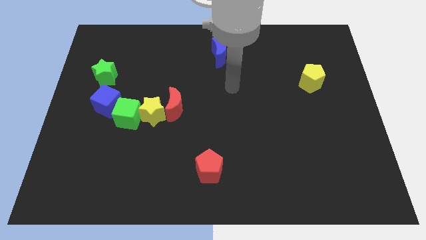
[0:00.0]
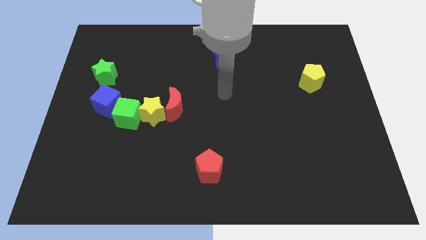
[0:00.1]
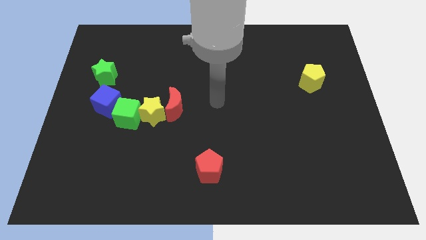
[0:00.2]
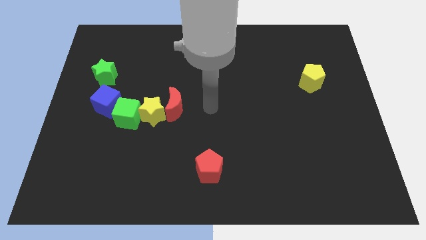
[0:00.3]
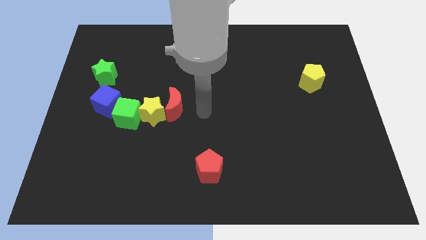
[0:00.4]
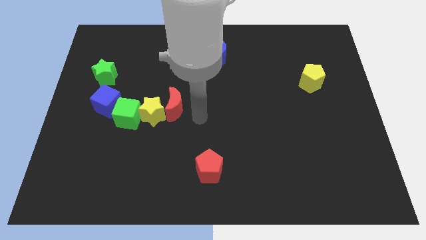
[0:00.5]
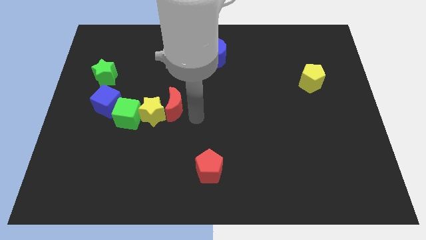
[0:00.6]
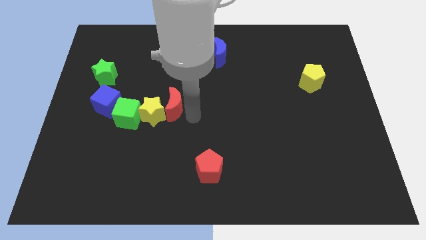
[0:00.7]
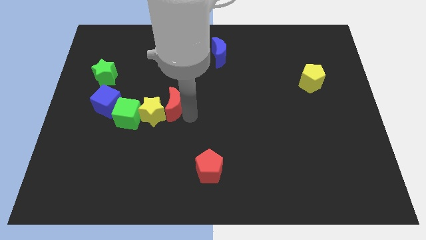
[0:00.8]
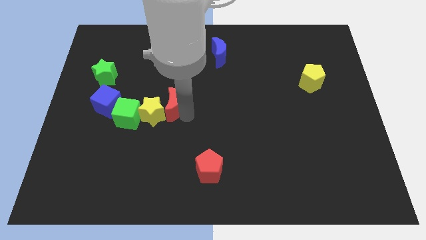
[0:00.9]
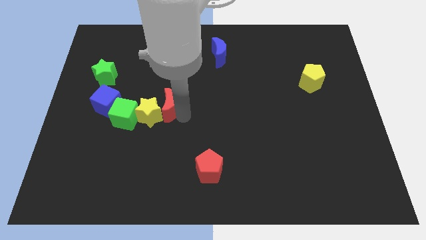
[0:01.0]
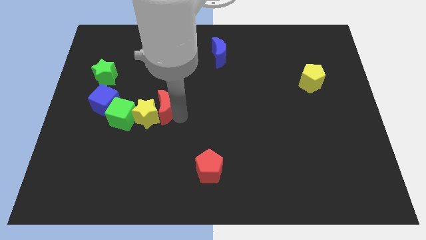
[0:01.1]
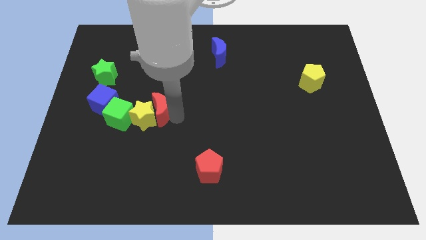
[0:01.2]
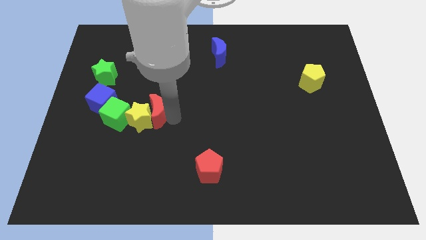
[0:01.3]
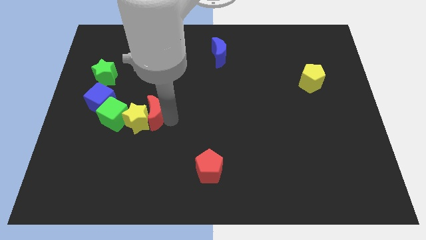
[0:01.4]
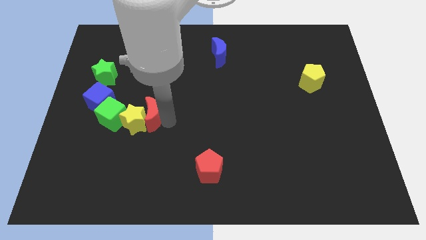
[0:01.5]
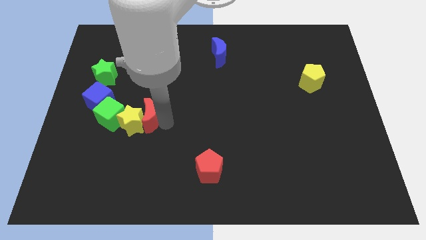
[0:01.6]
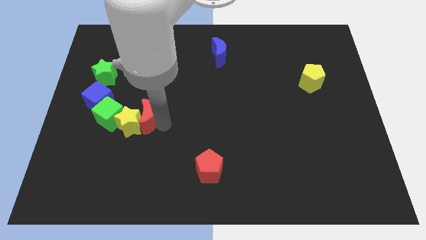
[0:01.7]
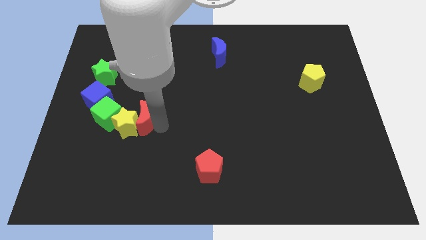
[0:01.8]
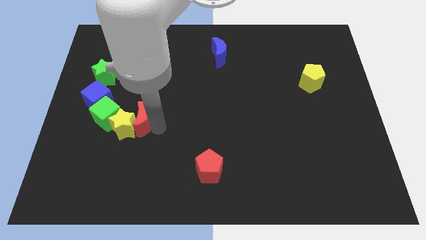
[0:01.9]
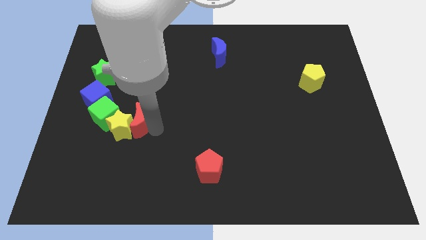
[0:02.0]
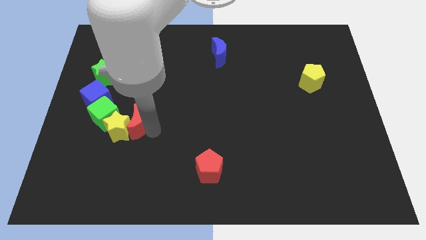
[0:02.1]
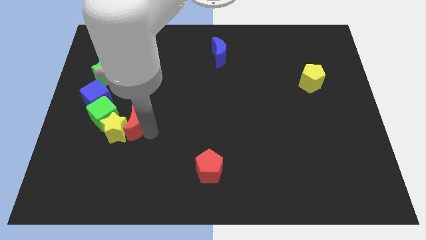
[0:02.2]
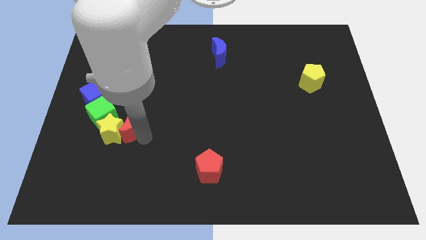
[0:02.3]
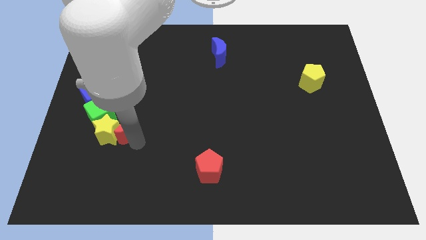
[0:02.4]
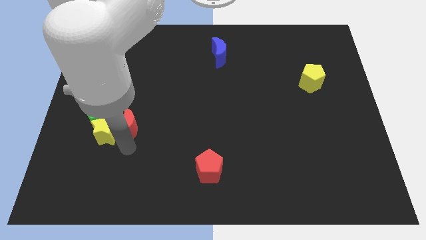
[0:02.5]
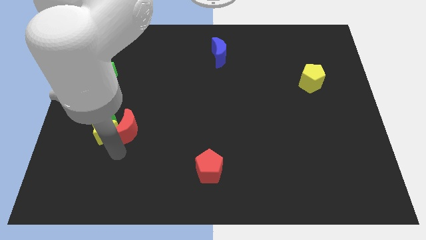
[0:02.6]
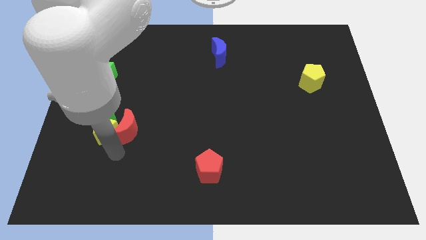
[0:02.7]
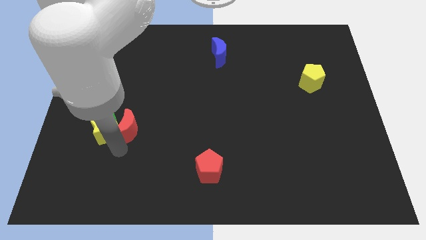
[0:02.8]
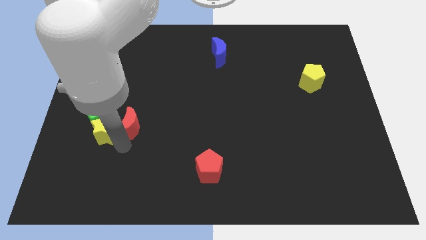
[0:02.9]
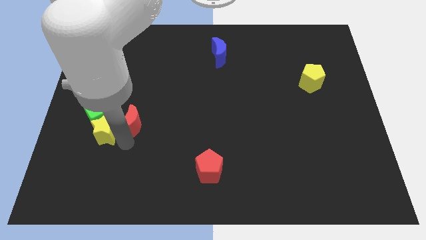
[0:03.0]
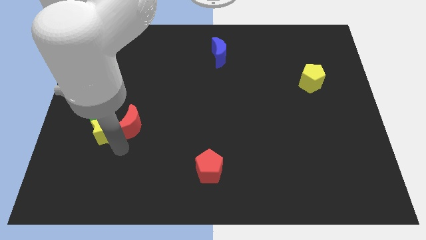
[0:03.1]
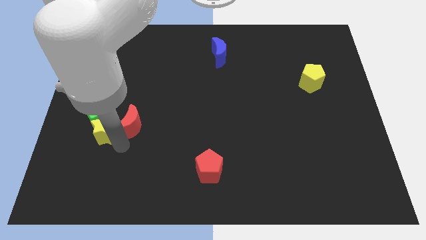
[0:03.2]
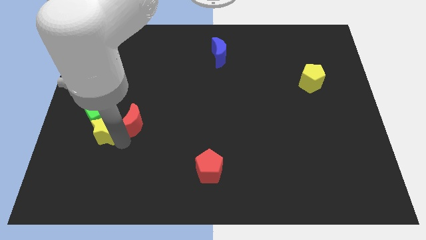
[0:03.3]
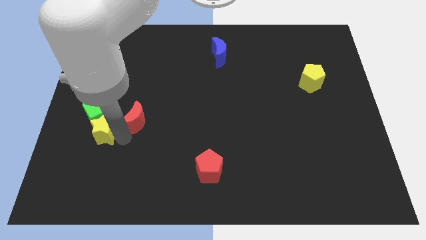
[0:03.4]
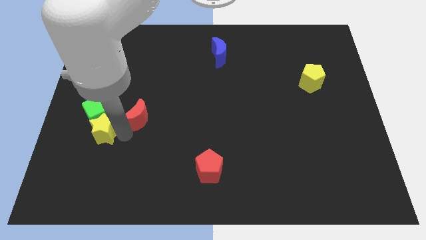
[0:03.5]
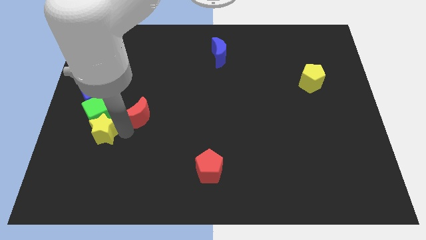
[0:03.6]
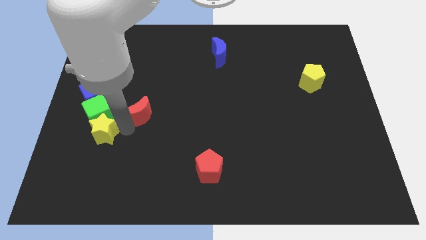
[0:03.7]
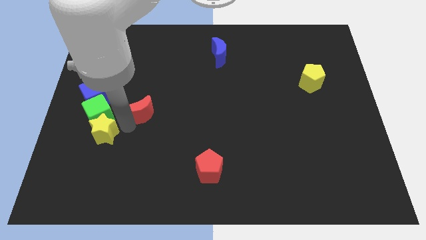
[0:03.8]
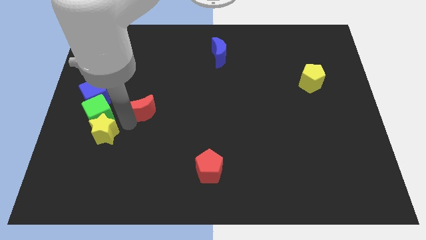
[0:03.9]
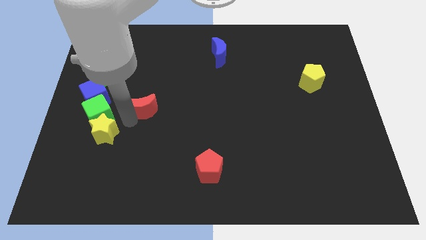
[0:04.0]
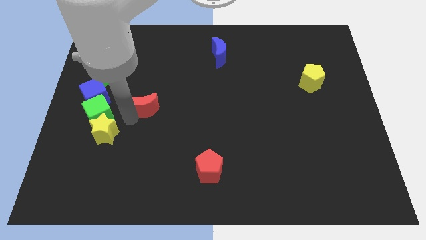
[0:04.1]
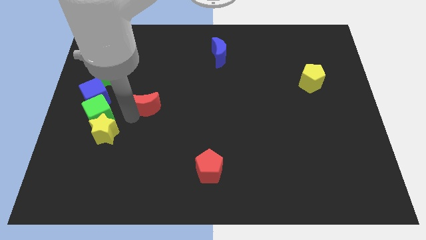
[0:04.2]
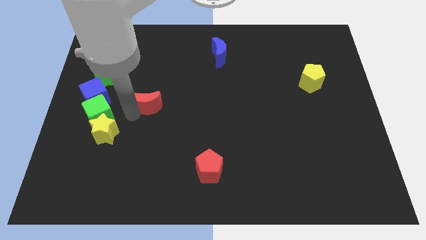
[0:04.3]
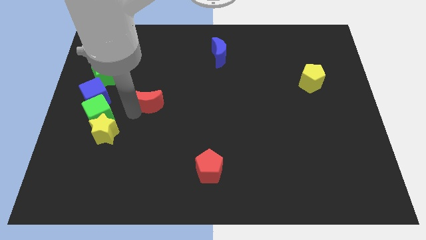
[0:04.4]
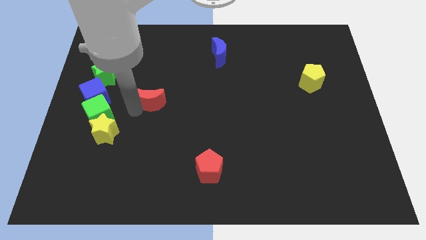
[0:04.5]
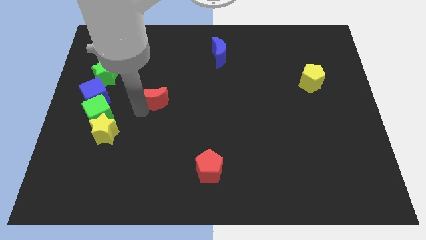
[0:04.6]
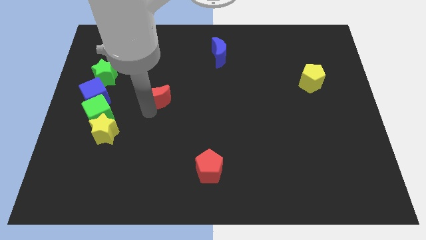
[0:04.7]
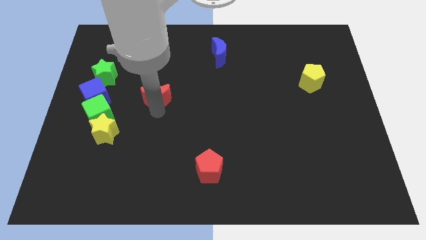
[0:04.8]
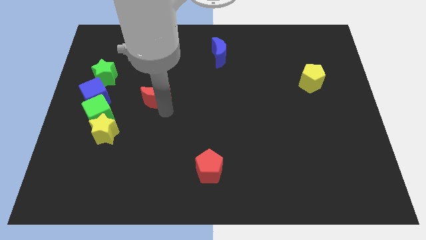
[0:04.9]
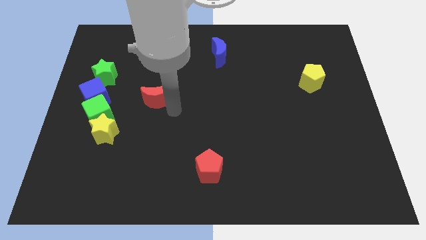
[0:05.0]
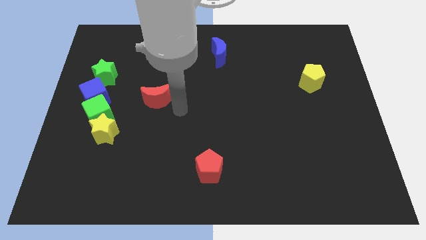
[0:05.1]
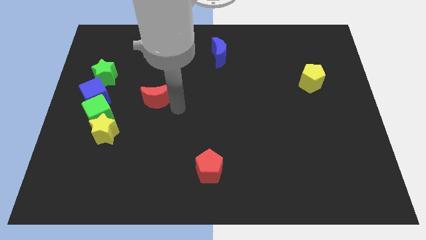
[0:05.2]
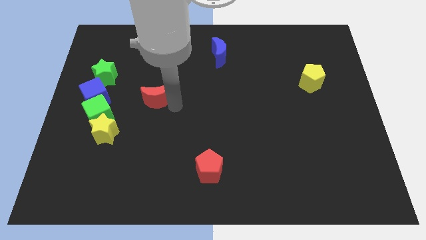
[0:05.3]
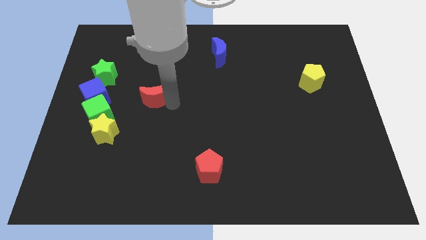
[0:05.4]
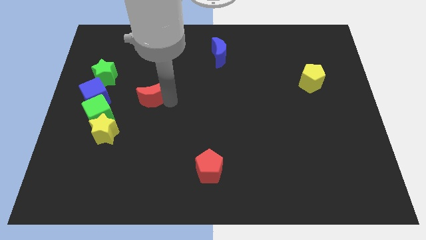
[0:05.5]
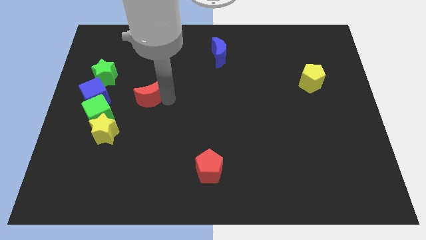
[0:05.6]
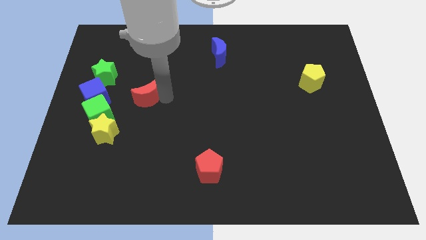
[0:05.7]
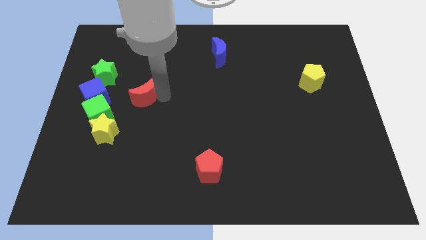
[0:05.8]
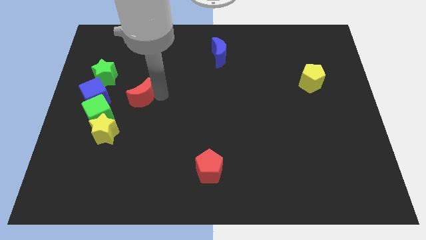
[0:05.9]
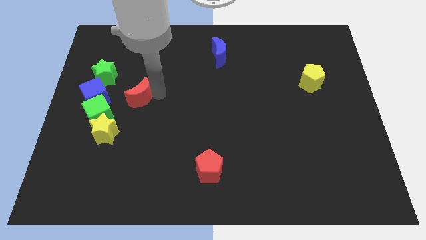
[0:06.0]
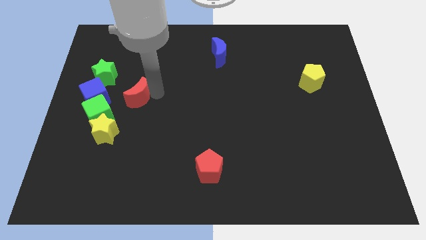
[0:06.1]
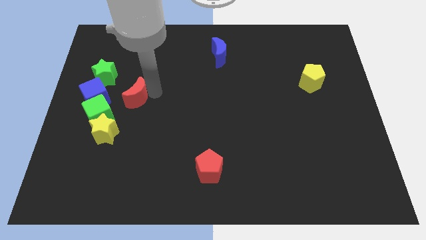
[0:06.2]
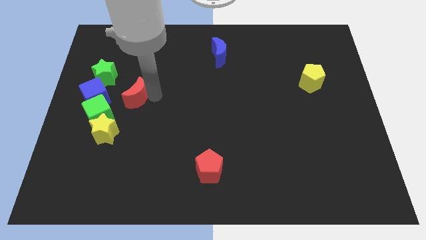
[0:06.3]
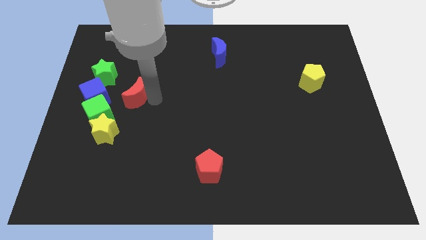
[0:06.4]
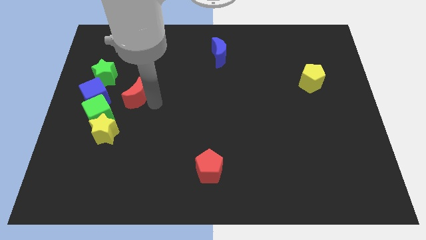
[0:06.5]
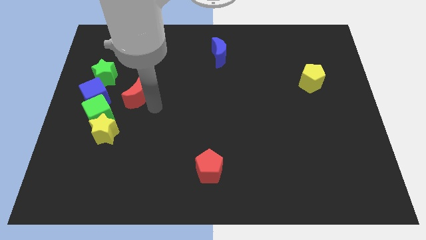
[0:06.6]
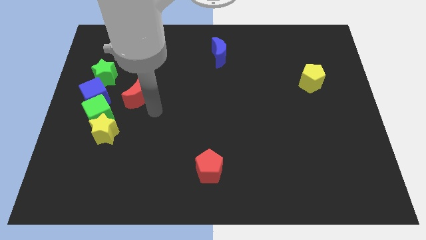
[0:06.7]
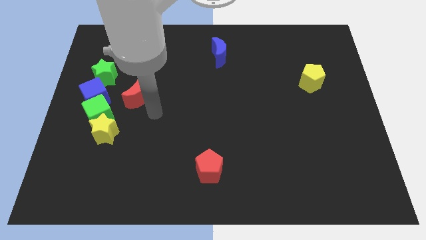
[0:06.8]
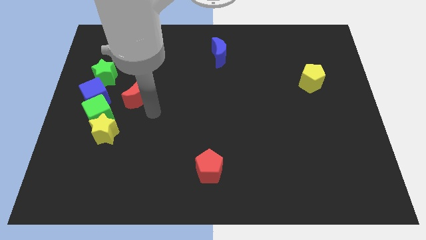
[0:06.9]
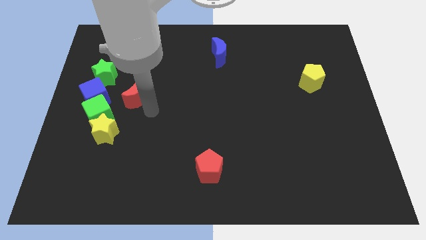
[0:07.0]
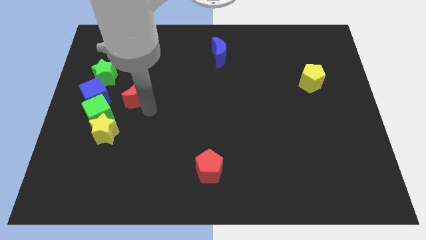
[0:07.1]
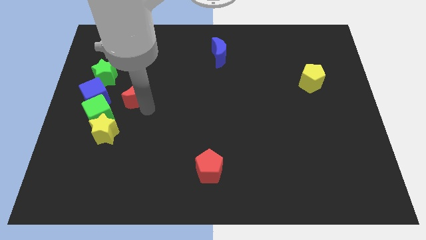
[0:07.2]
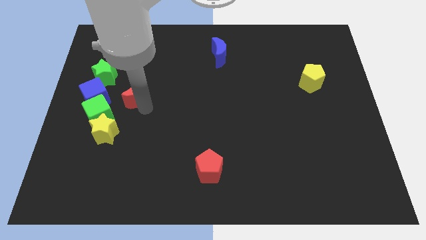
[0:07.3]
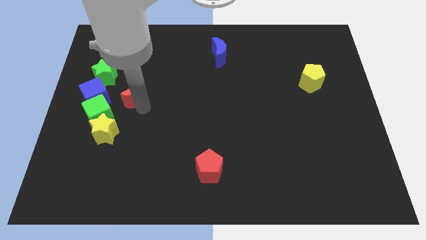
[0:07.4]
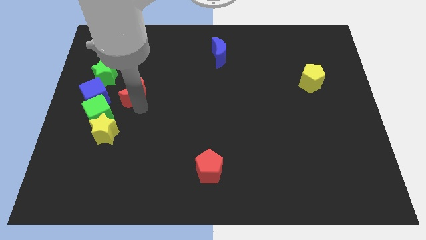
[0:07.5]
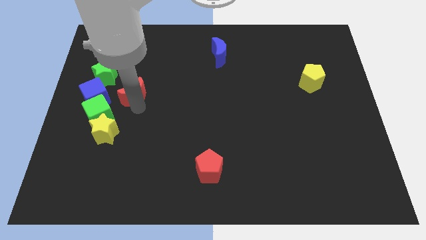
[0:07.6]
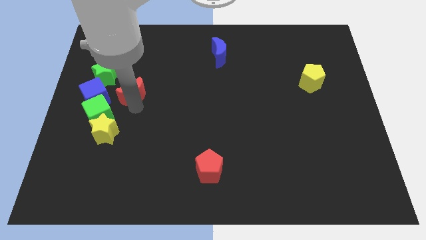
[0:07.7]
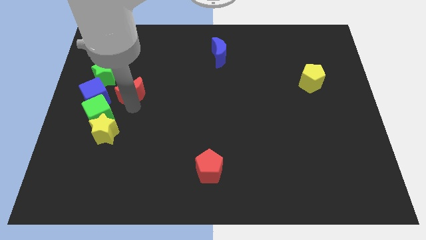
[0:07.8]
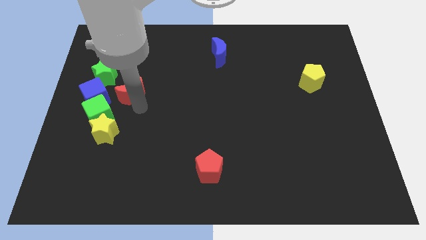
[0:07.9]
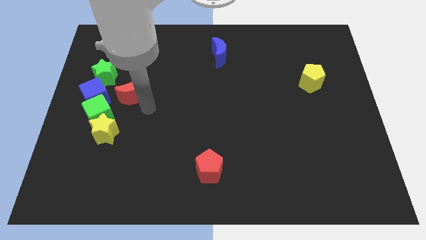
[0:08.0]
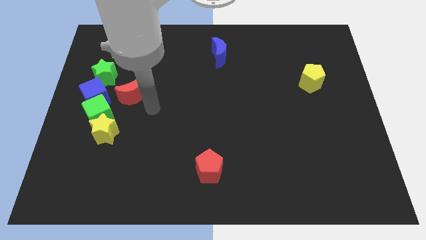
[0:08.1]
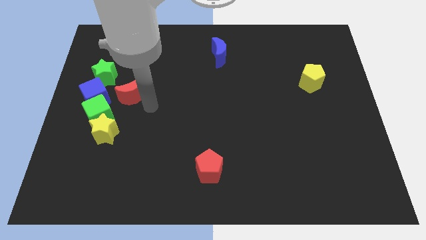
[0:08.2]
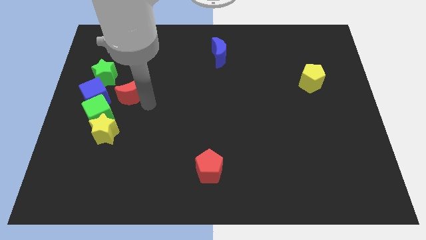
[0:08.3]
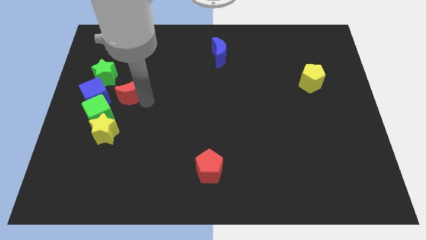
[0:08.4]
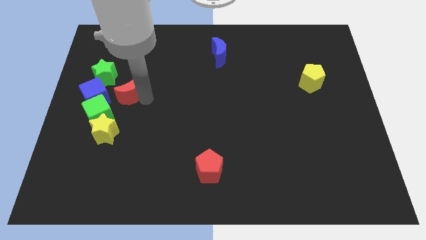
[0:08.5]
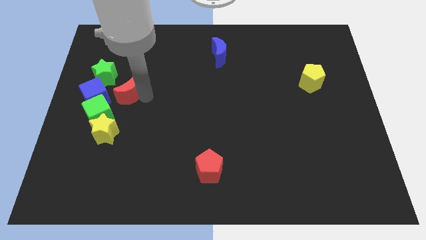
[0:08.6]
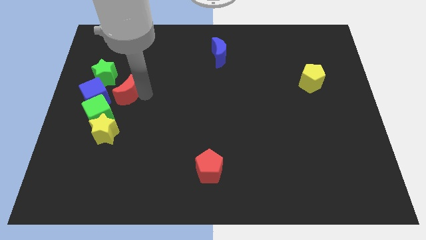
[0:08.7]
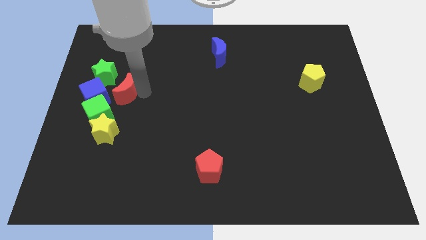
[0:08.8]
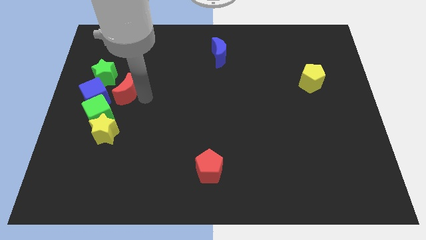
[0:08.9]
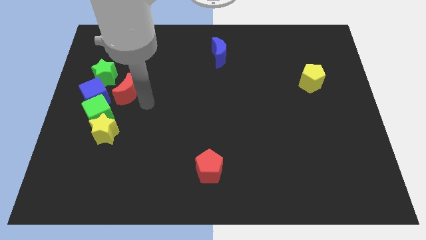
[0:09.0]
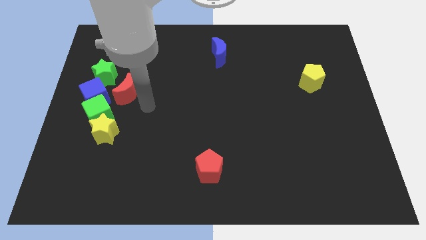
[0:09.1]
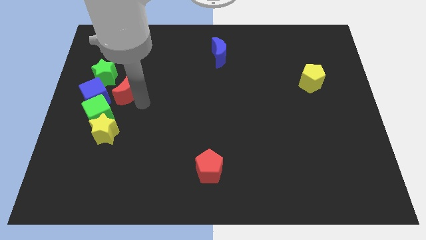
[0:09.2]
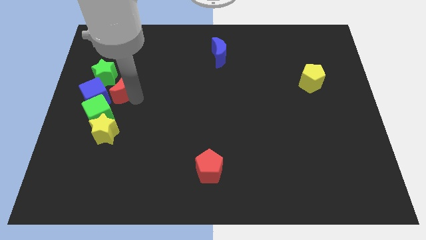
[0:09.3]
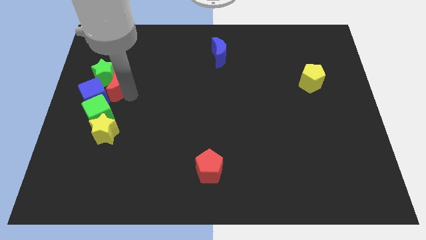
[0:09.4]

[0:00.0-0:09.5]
push the red moon close to the green star
